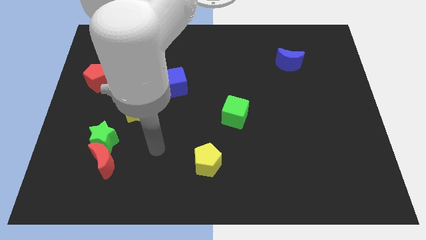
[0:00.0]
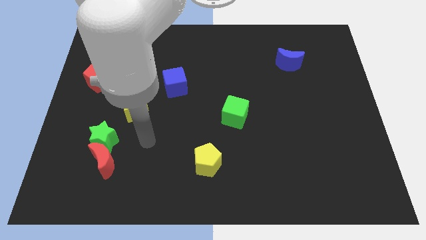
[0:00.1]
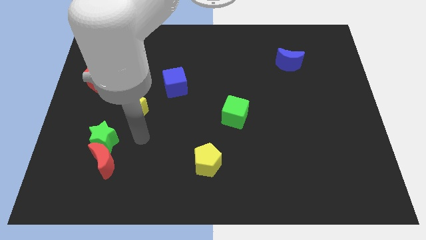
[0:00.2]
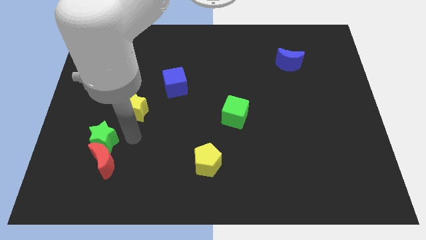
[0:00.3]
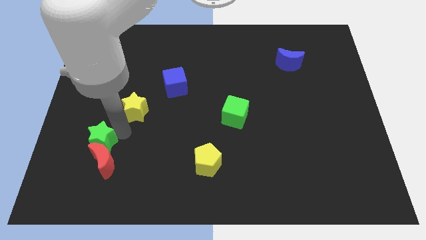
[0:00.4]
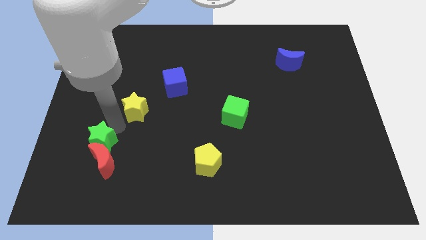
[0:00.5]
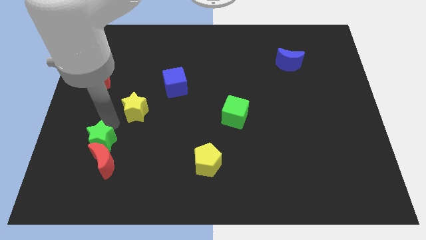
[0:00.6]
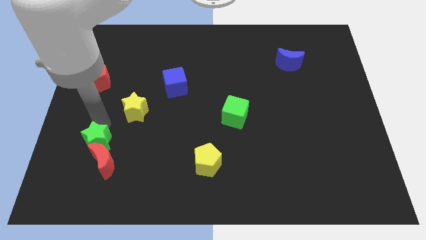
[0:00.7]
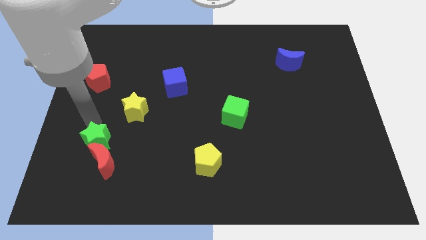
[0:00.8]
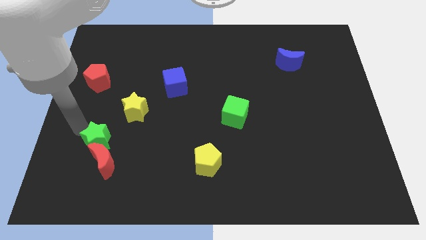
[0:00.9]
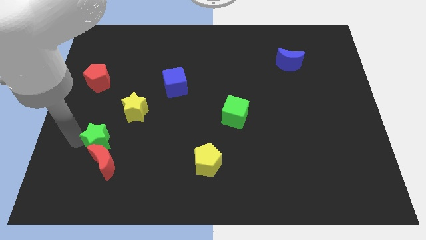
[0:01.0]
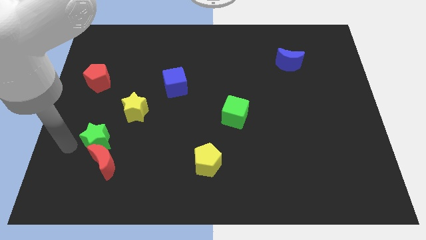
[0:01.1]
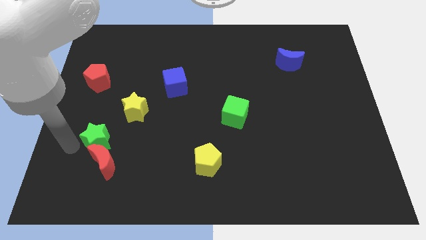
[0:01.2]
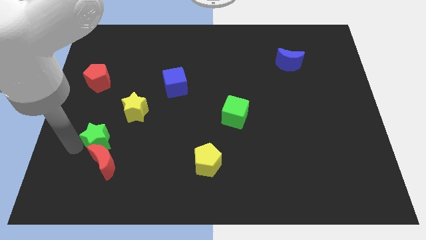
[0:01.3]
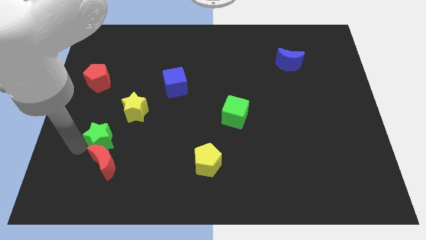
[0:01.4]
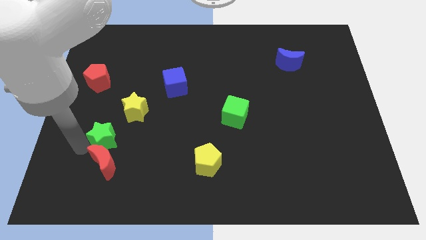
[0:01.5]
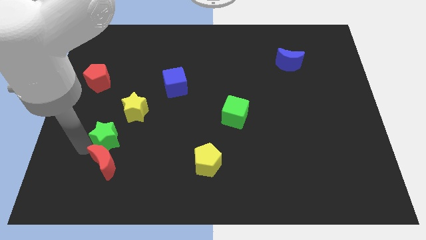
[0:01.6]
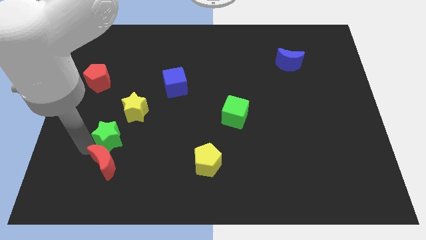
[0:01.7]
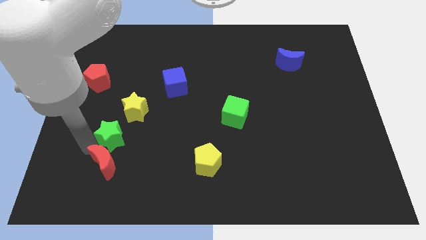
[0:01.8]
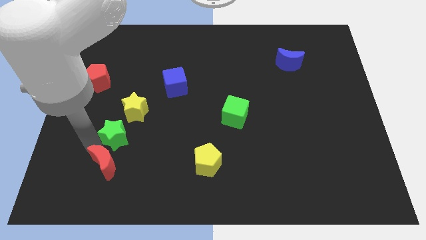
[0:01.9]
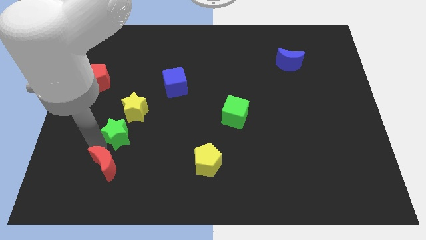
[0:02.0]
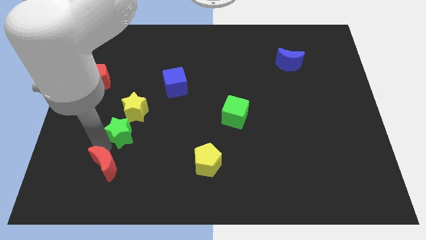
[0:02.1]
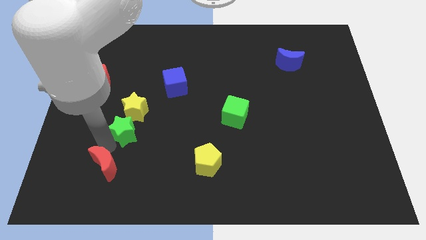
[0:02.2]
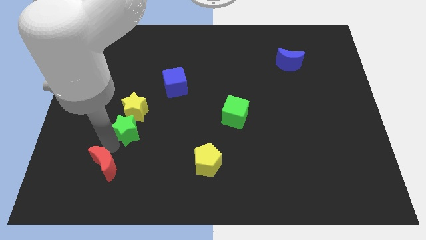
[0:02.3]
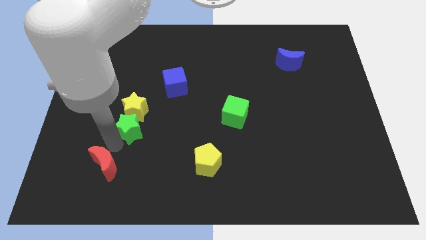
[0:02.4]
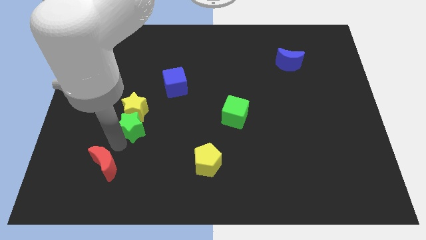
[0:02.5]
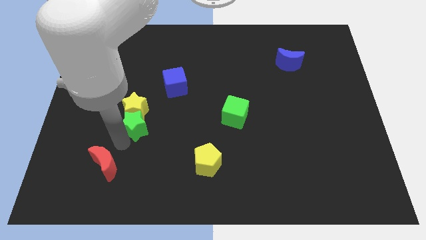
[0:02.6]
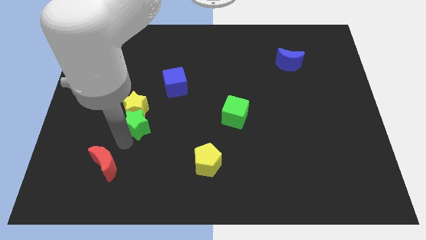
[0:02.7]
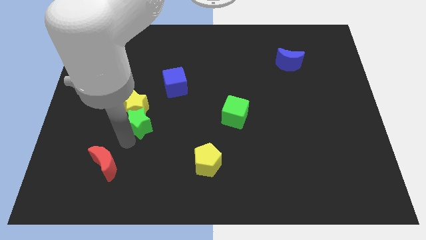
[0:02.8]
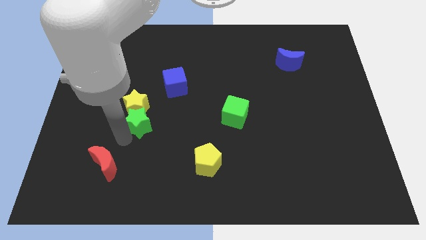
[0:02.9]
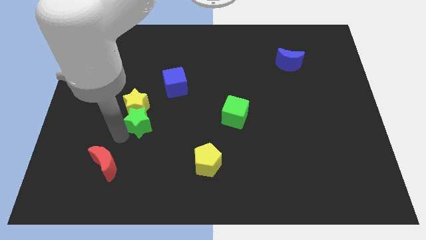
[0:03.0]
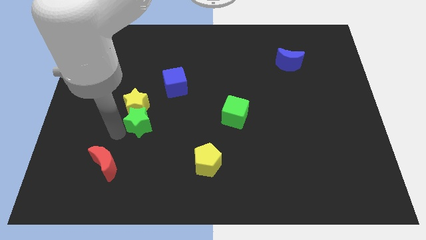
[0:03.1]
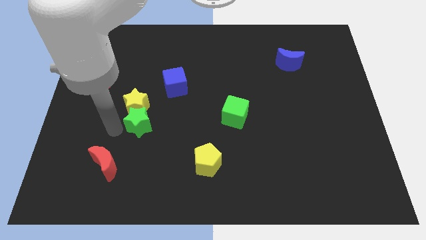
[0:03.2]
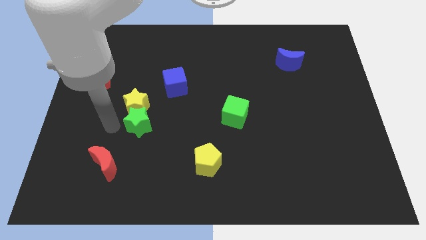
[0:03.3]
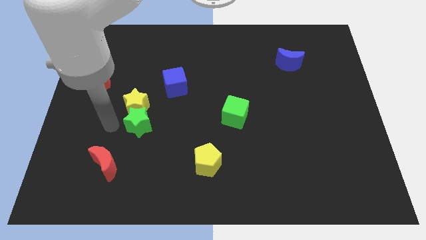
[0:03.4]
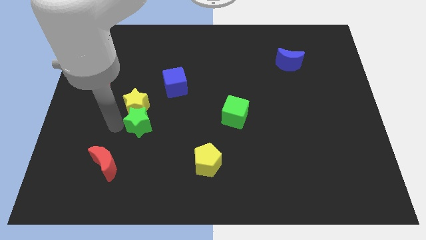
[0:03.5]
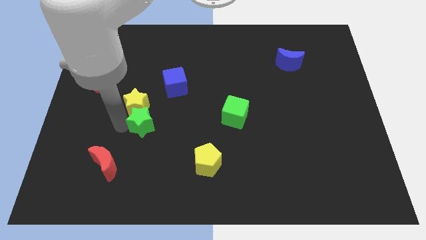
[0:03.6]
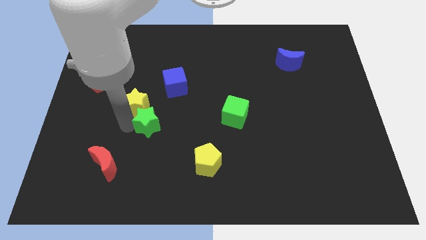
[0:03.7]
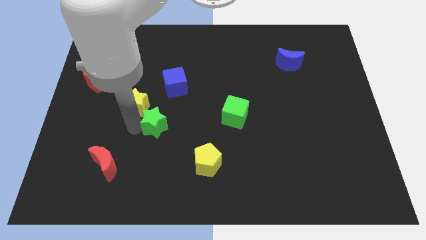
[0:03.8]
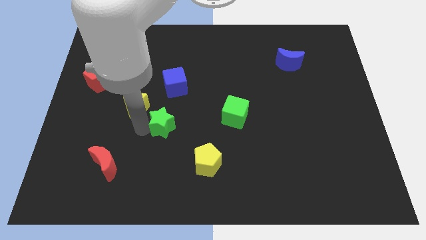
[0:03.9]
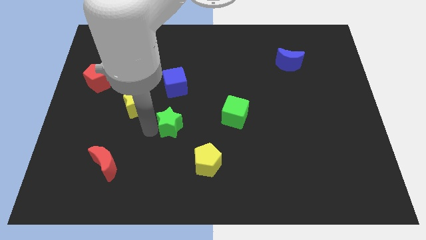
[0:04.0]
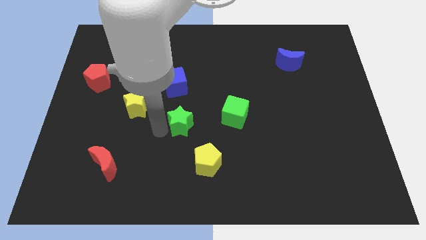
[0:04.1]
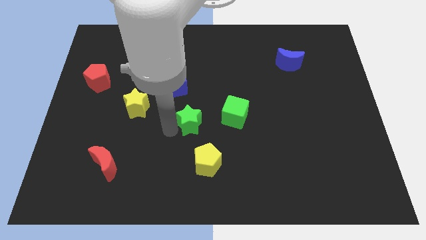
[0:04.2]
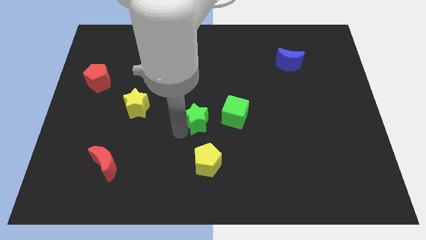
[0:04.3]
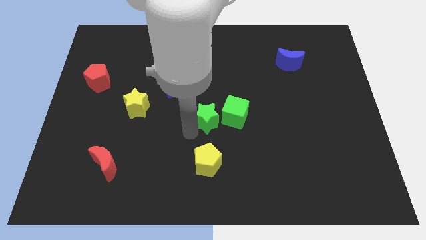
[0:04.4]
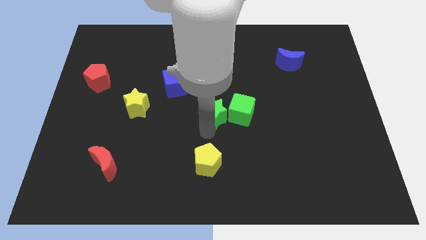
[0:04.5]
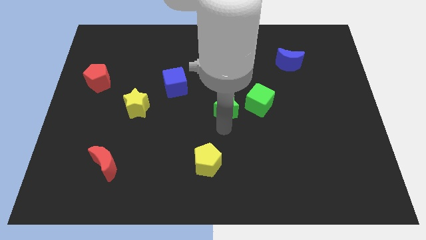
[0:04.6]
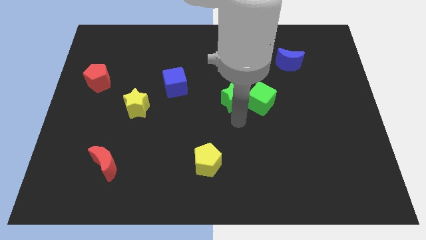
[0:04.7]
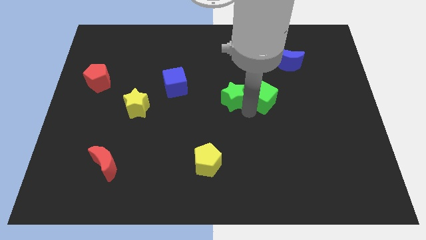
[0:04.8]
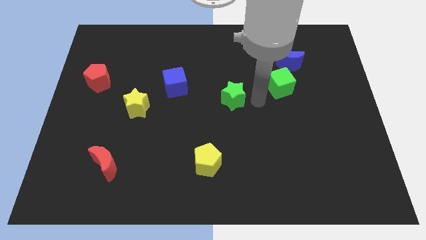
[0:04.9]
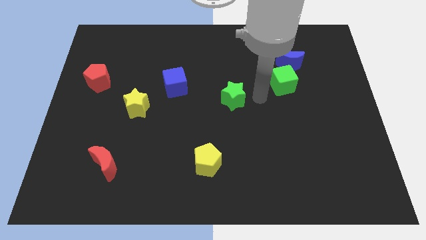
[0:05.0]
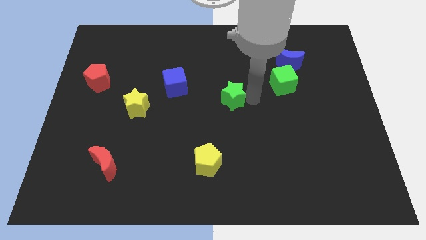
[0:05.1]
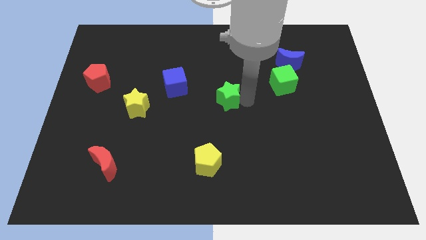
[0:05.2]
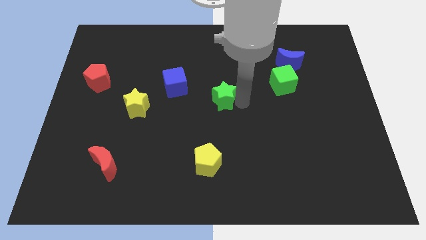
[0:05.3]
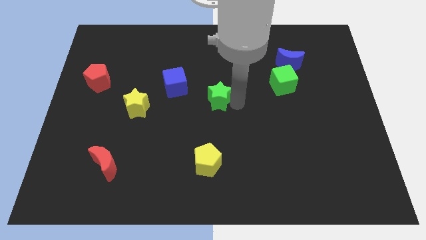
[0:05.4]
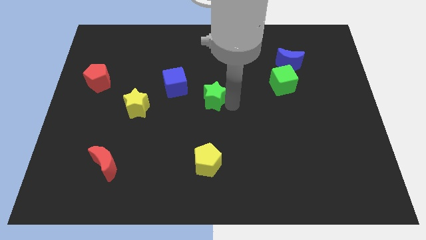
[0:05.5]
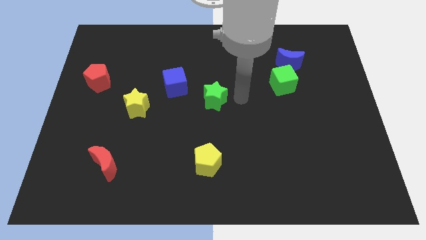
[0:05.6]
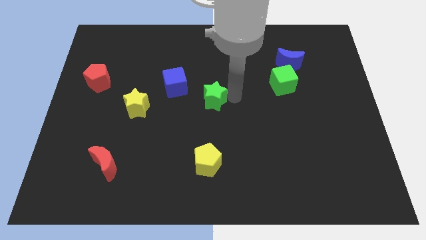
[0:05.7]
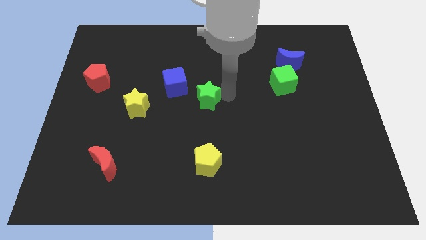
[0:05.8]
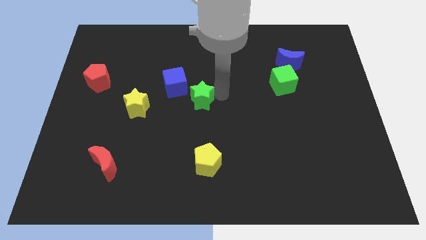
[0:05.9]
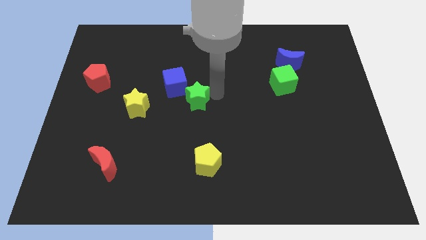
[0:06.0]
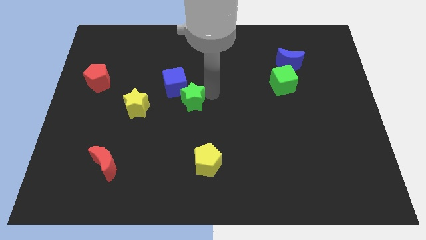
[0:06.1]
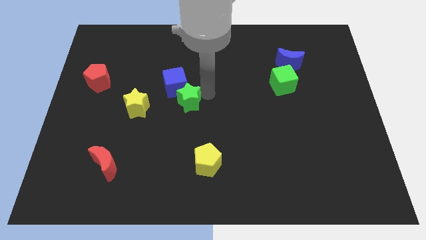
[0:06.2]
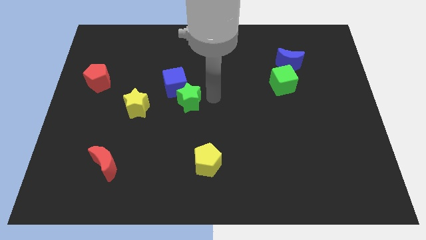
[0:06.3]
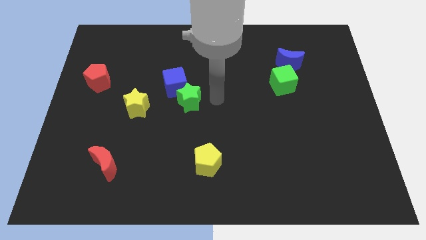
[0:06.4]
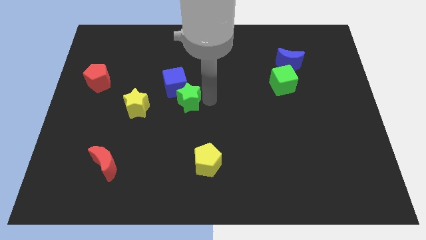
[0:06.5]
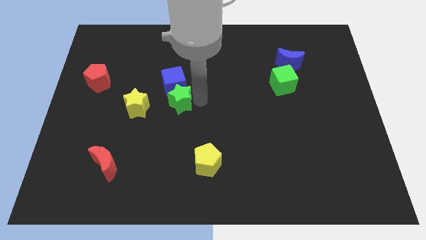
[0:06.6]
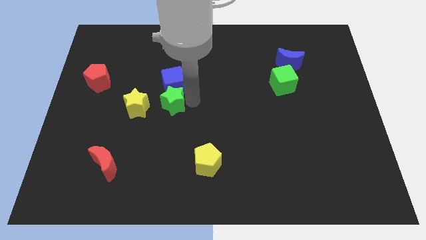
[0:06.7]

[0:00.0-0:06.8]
move the green star diagonally down and to the left of the blue cube

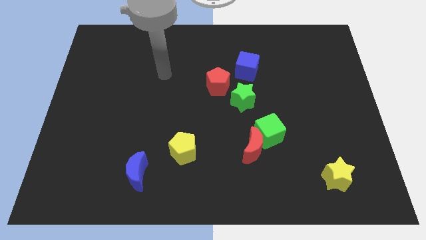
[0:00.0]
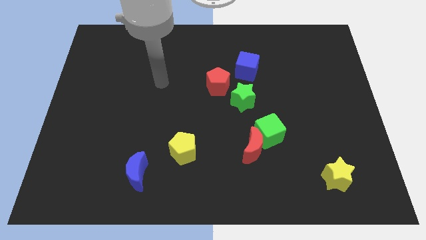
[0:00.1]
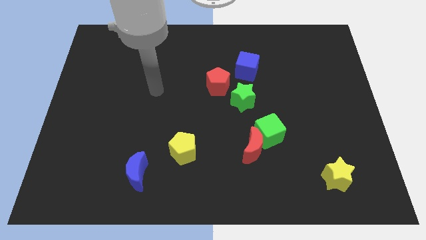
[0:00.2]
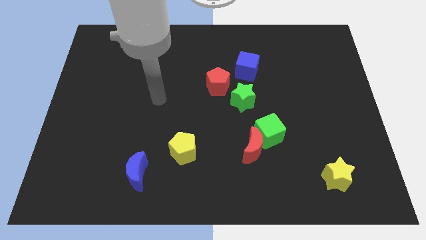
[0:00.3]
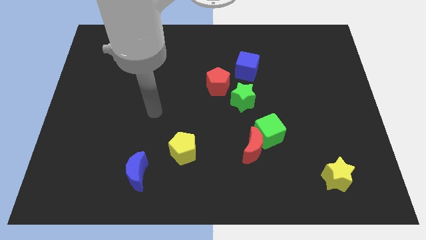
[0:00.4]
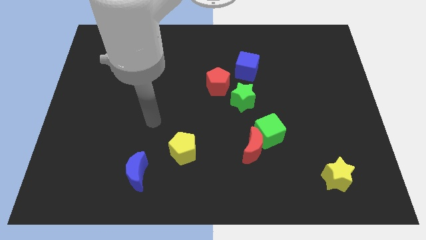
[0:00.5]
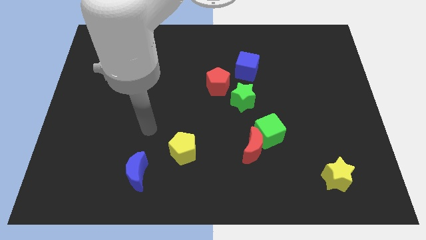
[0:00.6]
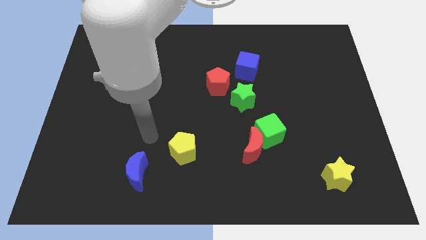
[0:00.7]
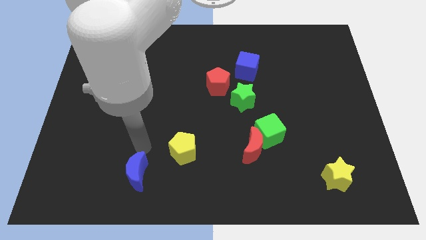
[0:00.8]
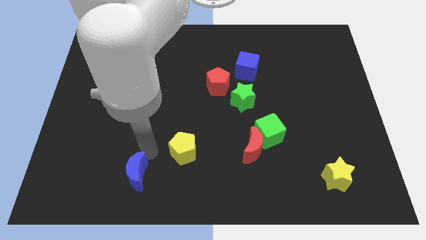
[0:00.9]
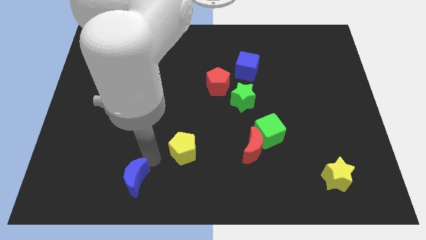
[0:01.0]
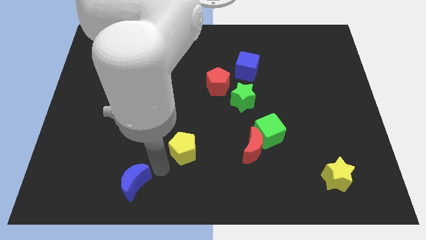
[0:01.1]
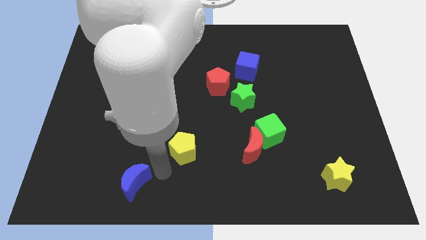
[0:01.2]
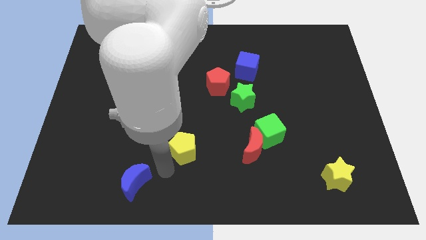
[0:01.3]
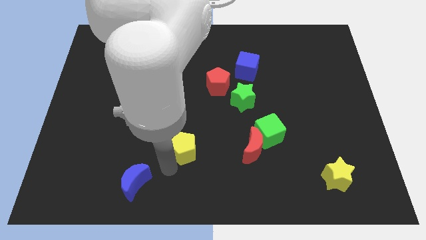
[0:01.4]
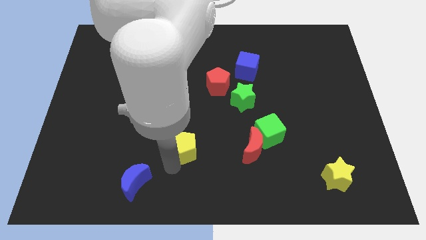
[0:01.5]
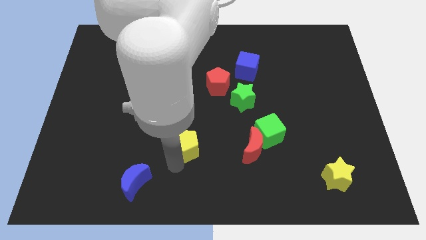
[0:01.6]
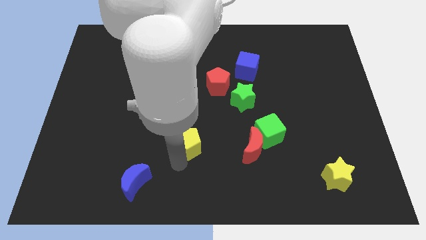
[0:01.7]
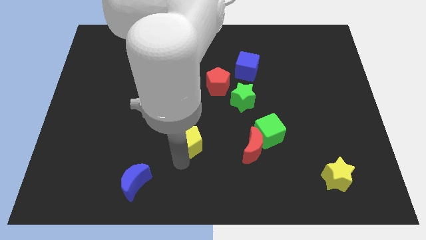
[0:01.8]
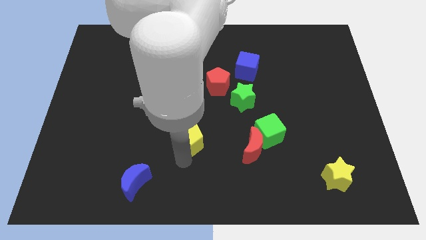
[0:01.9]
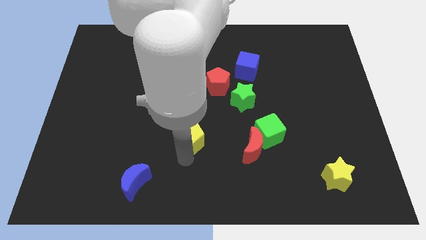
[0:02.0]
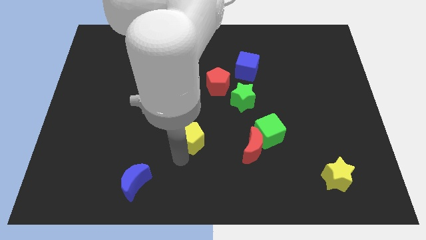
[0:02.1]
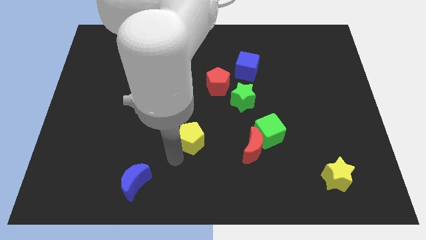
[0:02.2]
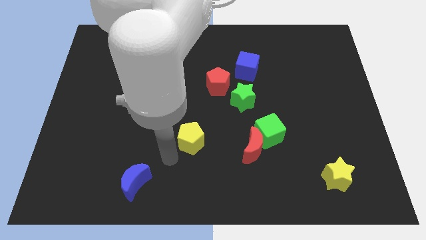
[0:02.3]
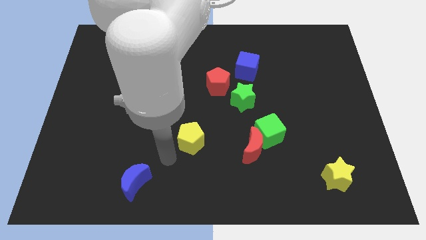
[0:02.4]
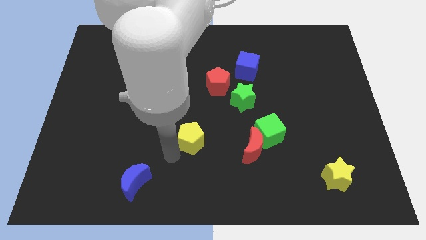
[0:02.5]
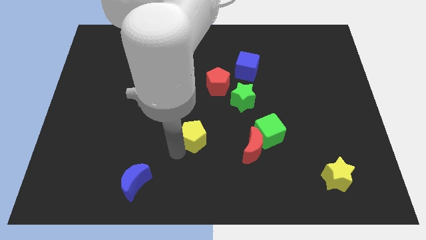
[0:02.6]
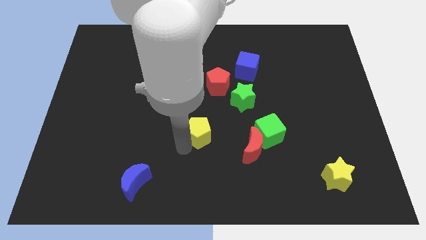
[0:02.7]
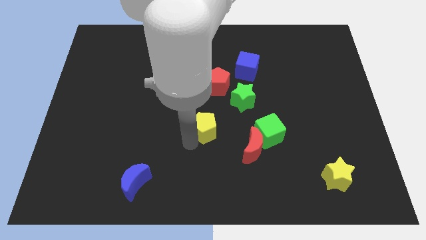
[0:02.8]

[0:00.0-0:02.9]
put the yellow pentagon to the bottom side of the red pentagon
